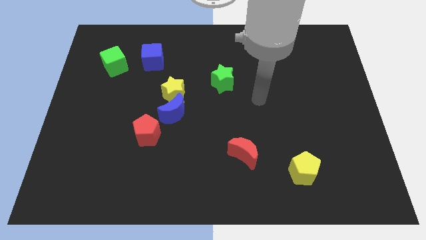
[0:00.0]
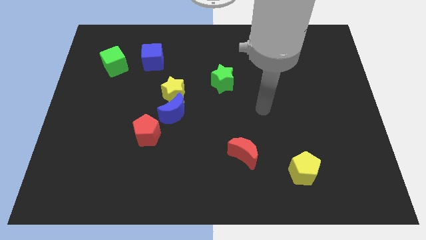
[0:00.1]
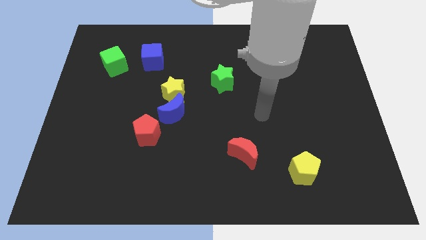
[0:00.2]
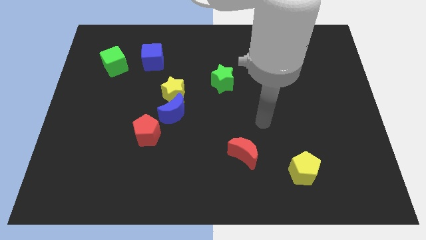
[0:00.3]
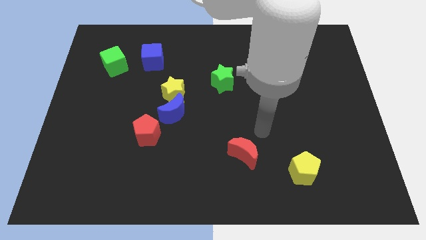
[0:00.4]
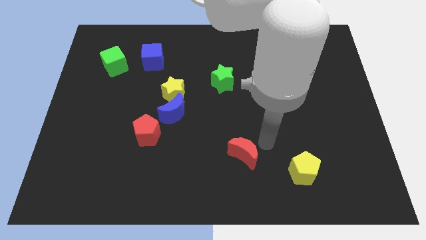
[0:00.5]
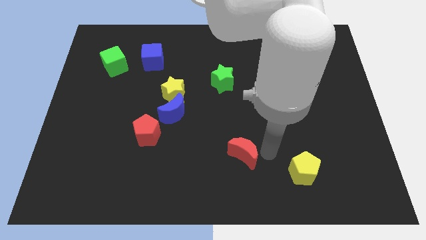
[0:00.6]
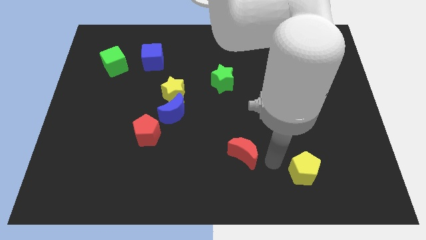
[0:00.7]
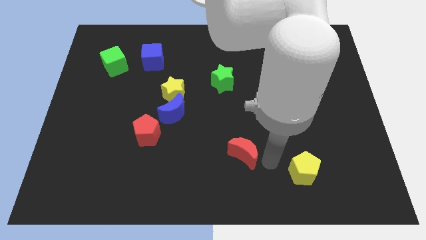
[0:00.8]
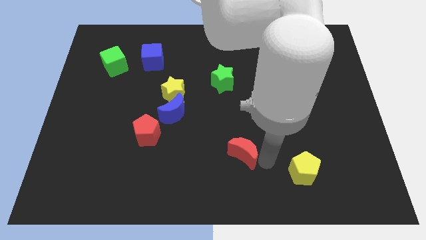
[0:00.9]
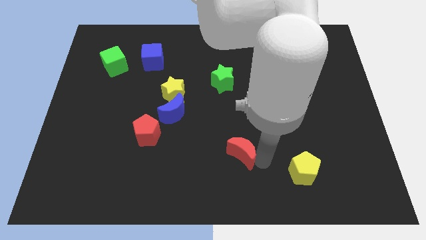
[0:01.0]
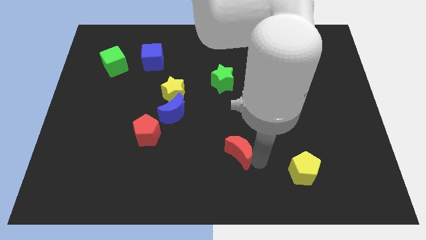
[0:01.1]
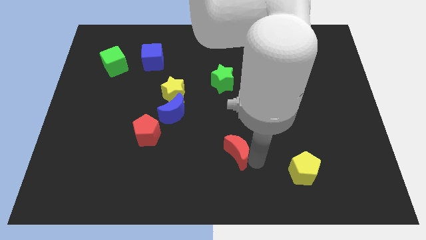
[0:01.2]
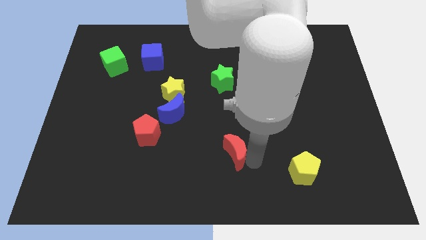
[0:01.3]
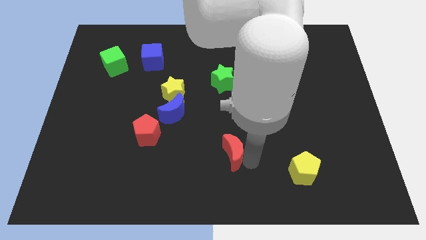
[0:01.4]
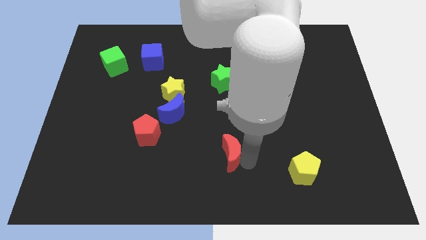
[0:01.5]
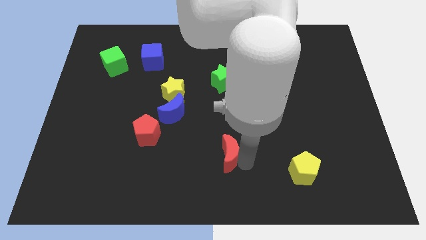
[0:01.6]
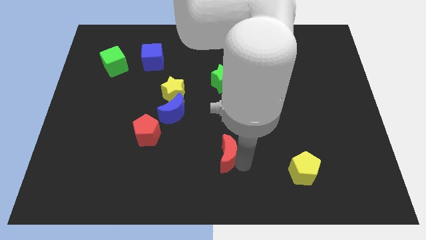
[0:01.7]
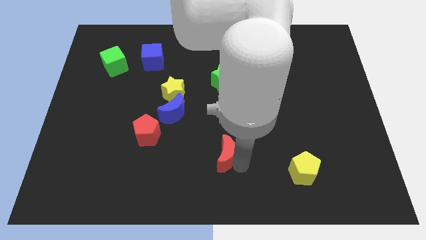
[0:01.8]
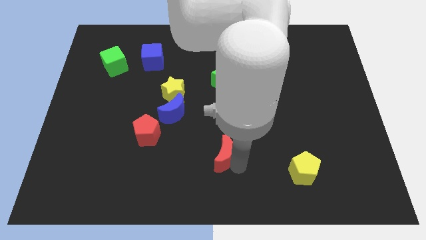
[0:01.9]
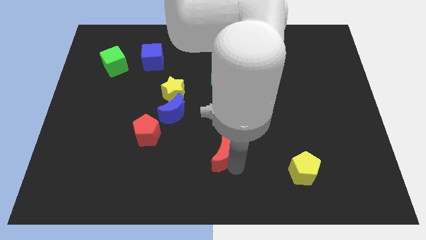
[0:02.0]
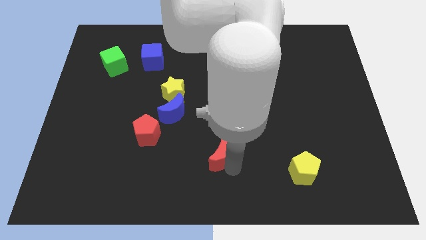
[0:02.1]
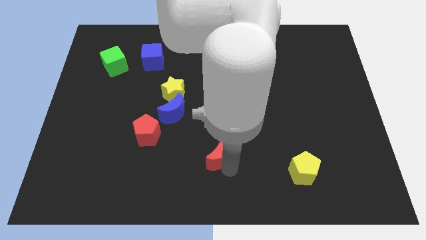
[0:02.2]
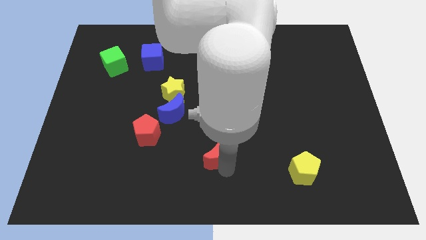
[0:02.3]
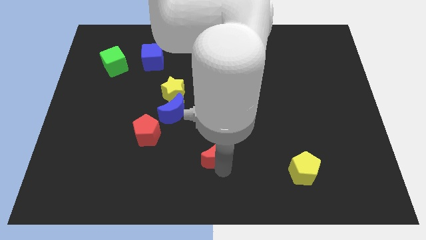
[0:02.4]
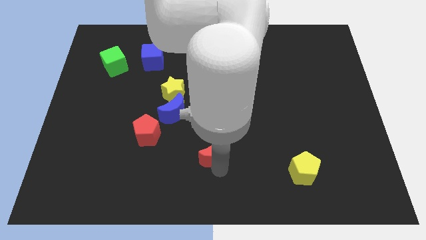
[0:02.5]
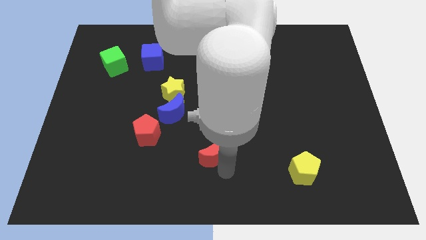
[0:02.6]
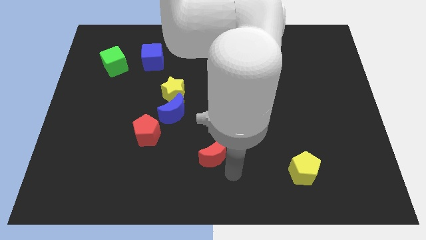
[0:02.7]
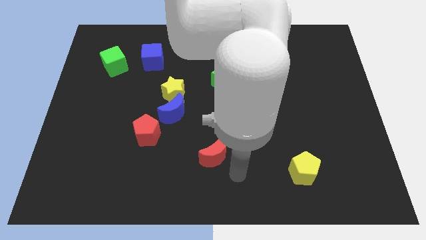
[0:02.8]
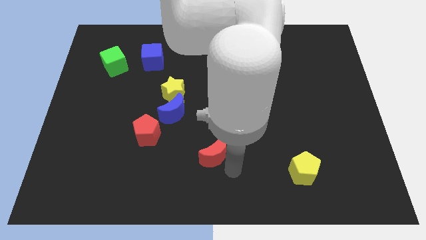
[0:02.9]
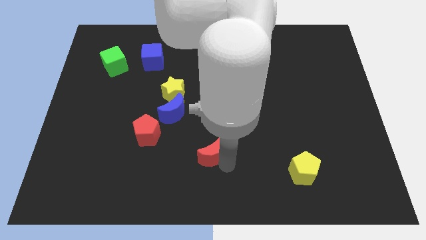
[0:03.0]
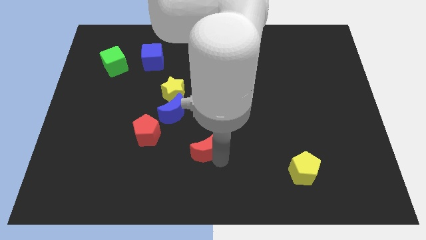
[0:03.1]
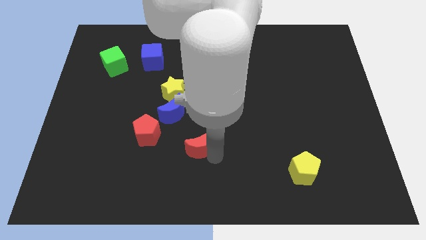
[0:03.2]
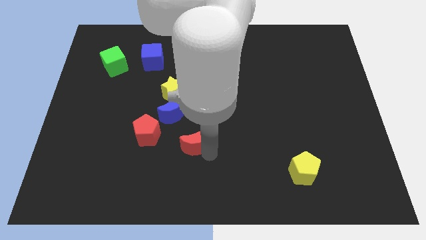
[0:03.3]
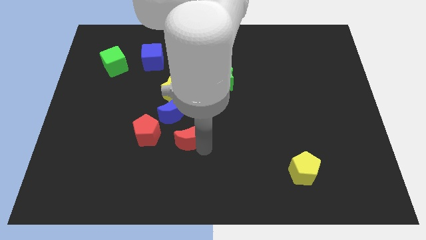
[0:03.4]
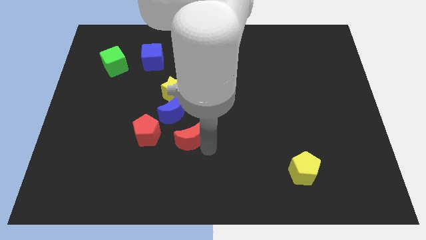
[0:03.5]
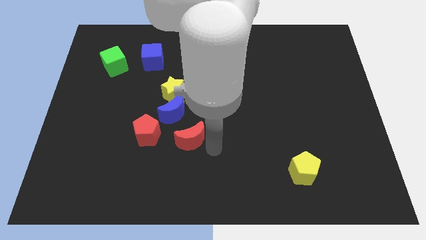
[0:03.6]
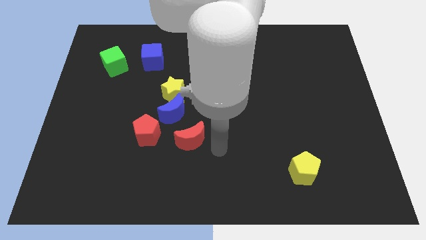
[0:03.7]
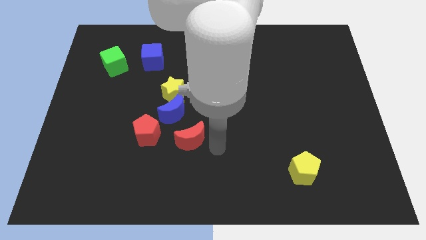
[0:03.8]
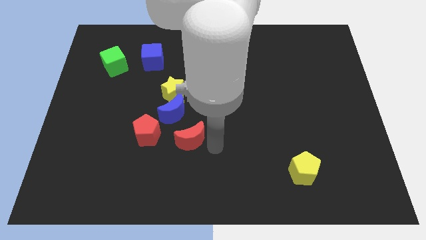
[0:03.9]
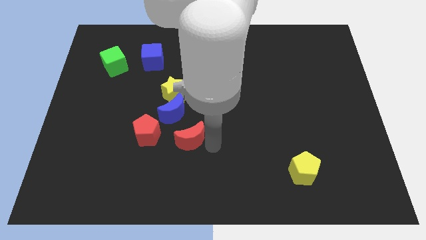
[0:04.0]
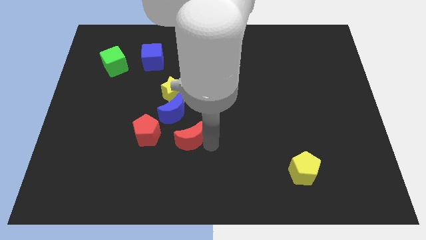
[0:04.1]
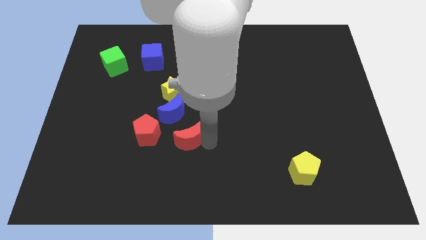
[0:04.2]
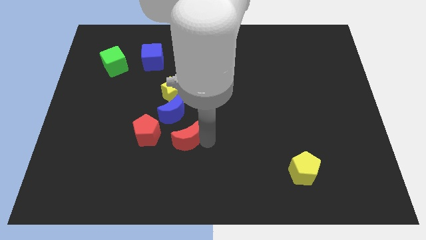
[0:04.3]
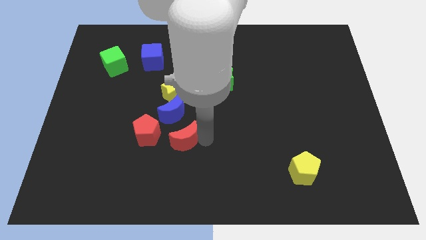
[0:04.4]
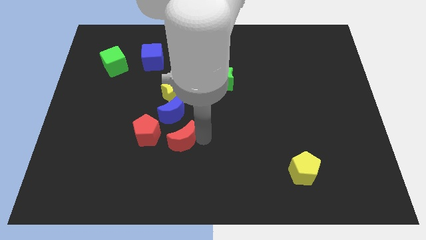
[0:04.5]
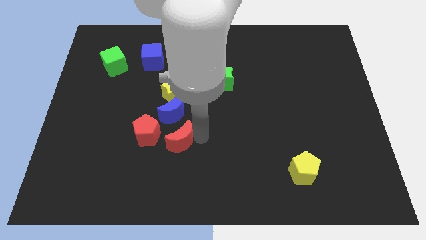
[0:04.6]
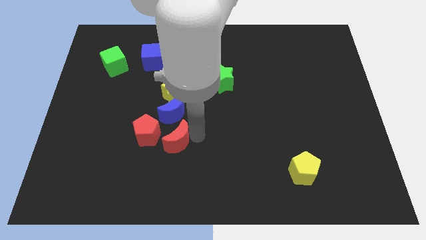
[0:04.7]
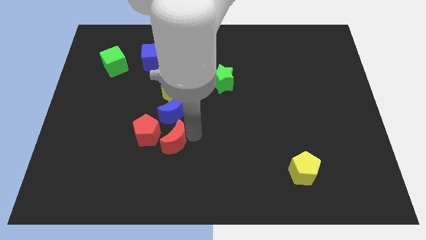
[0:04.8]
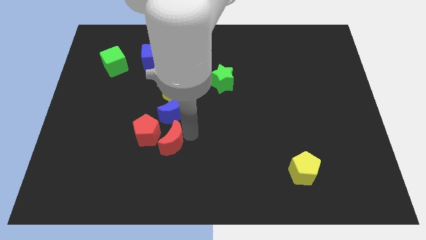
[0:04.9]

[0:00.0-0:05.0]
move the red moon towards the red pentagon

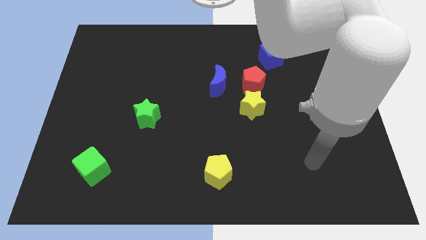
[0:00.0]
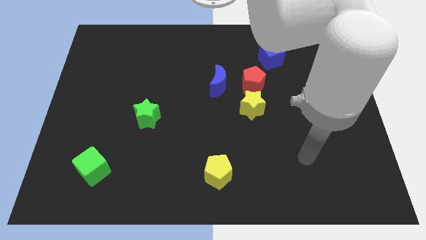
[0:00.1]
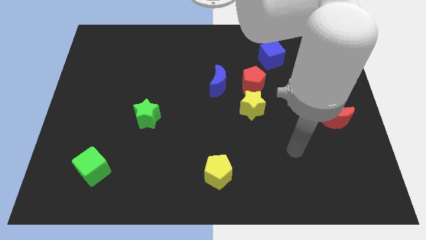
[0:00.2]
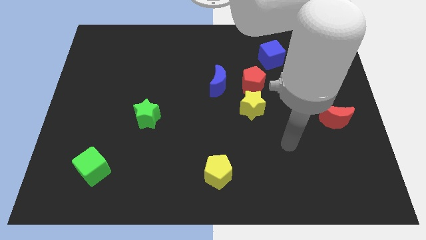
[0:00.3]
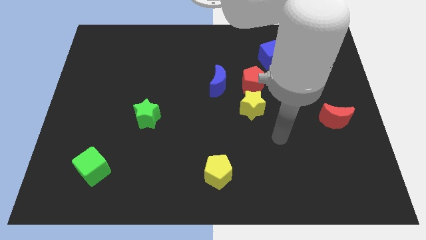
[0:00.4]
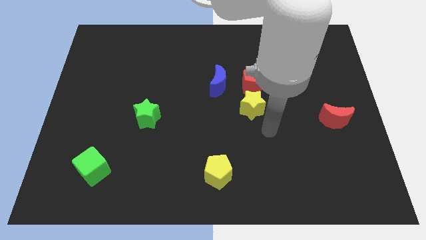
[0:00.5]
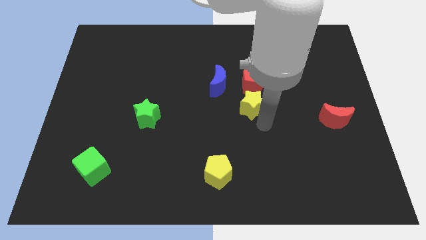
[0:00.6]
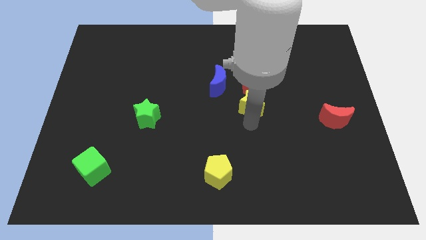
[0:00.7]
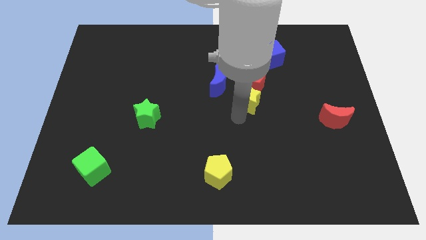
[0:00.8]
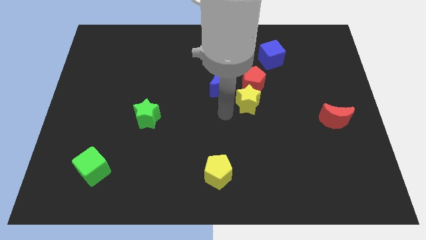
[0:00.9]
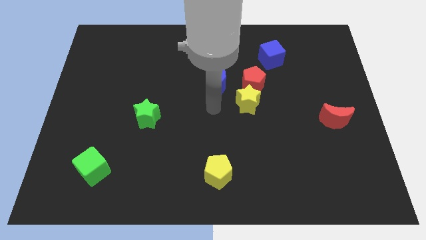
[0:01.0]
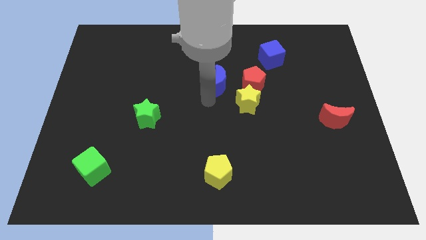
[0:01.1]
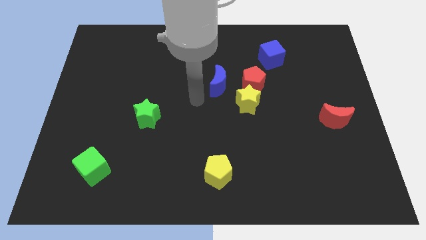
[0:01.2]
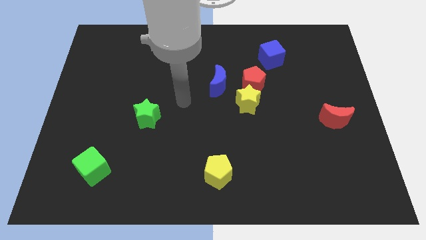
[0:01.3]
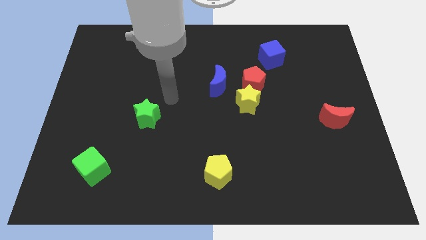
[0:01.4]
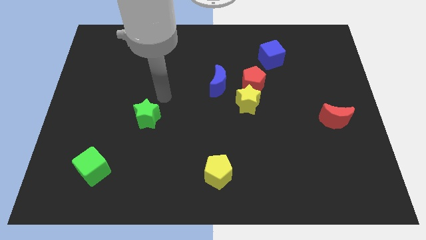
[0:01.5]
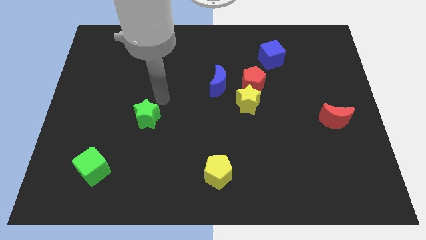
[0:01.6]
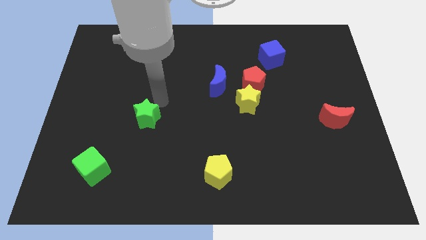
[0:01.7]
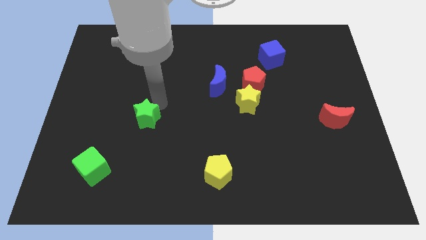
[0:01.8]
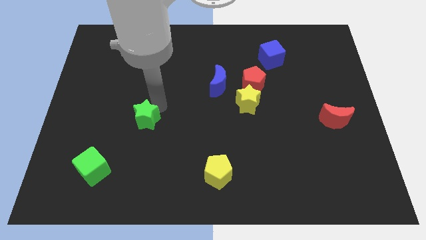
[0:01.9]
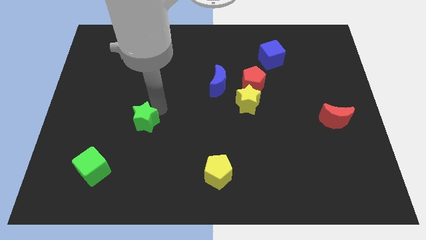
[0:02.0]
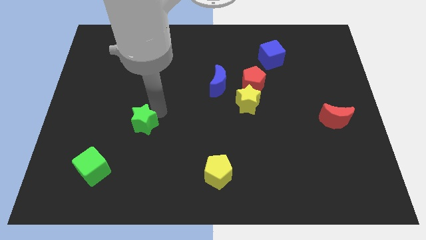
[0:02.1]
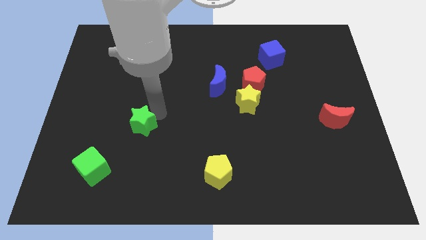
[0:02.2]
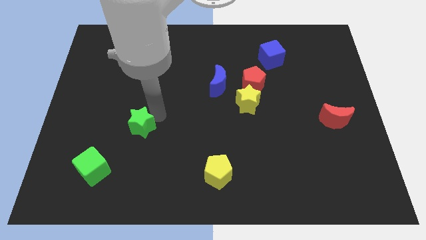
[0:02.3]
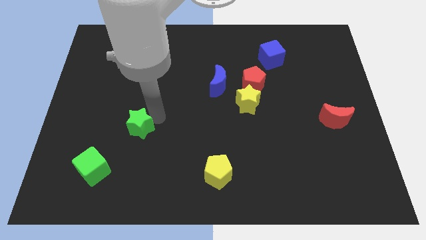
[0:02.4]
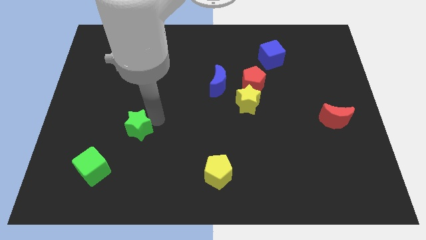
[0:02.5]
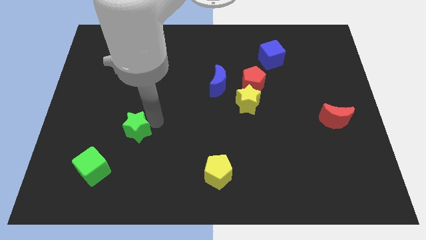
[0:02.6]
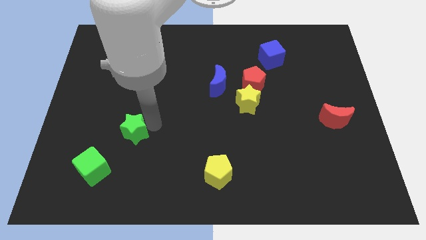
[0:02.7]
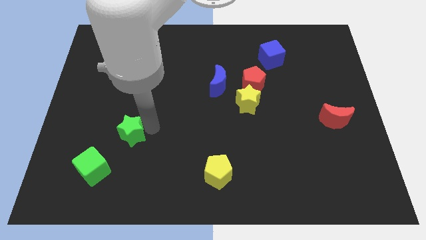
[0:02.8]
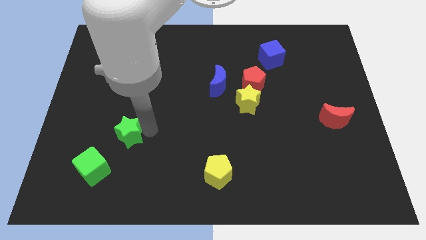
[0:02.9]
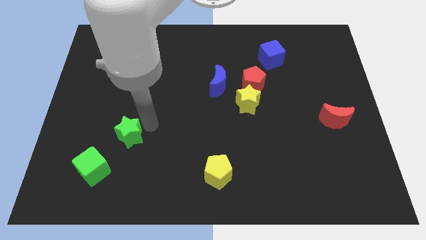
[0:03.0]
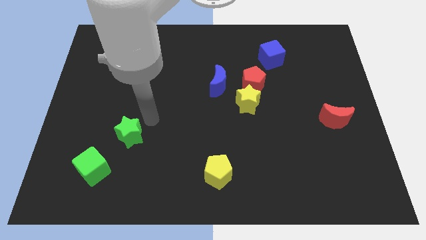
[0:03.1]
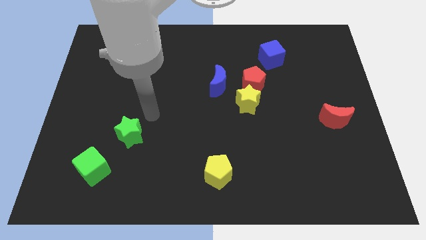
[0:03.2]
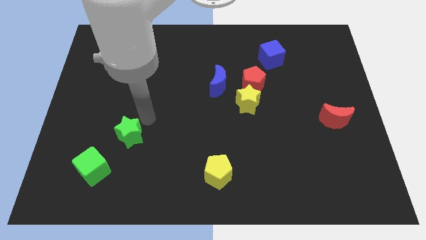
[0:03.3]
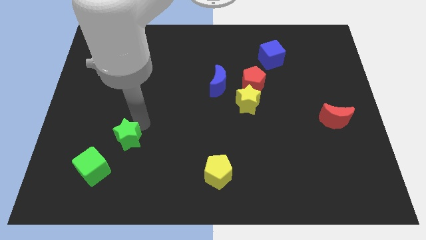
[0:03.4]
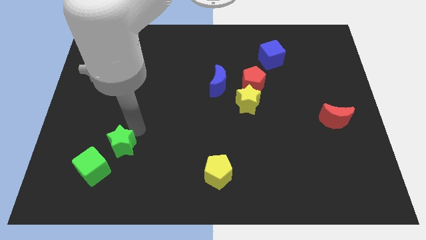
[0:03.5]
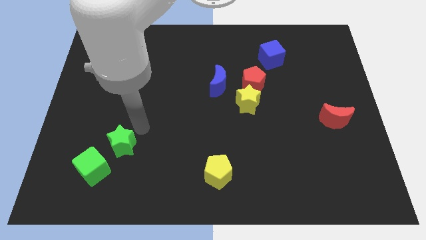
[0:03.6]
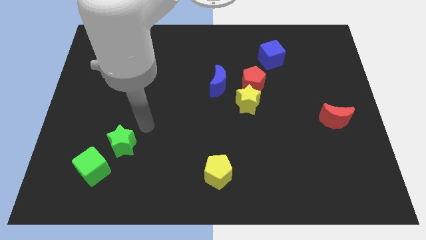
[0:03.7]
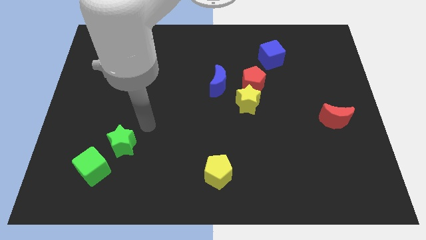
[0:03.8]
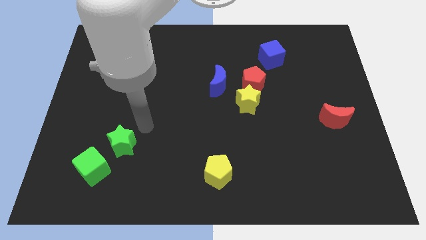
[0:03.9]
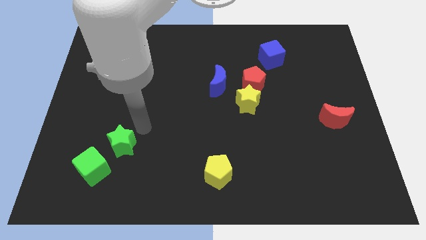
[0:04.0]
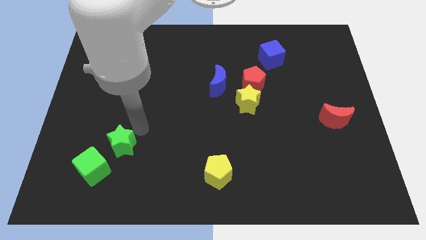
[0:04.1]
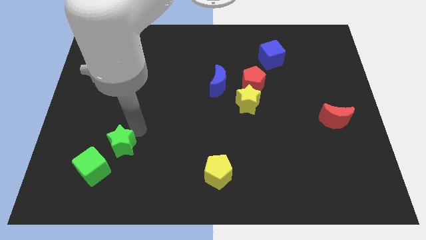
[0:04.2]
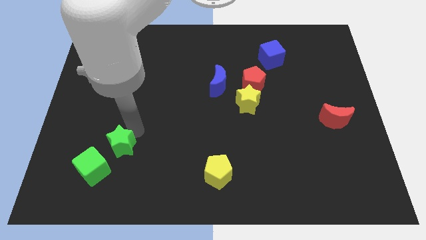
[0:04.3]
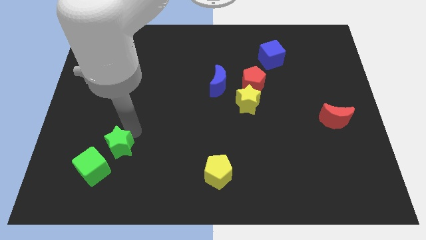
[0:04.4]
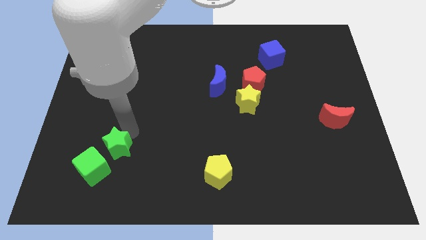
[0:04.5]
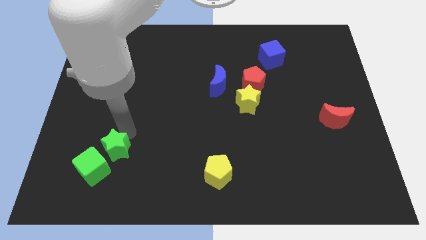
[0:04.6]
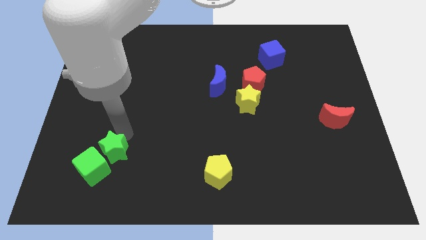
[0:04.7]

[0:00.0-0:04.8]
put the green star close to the green cube
